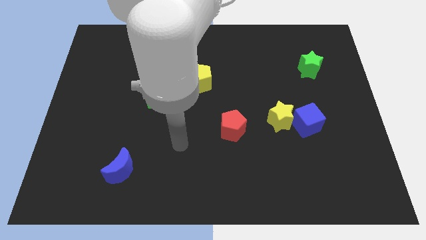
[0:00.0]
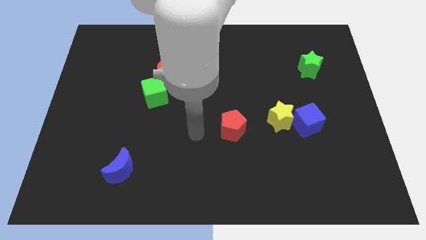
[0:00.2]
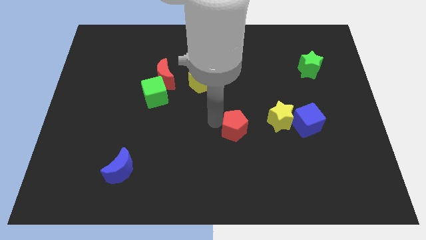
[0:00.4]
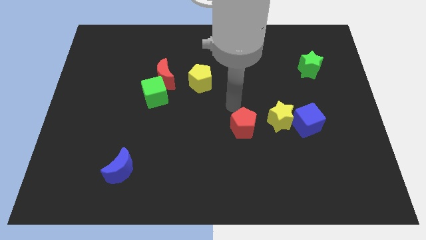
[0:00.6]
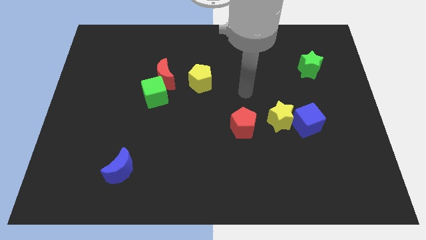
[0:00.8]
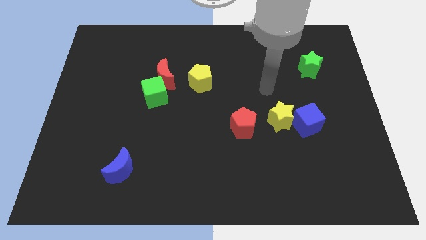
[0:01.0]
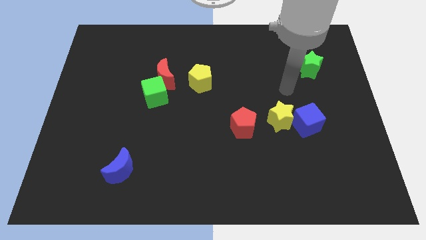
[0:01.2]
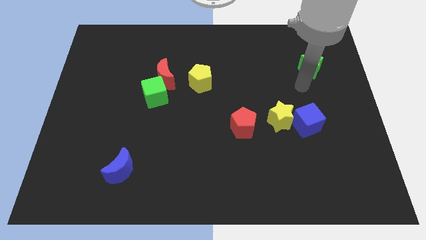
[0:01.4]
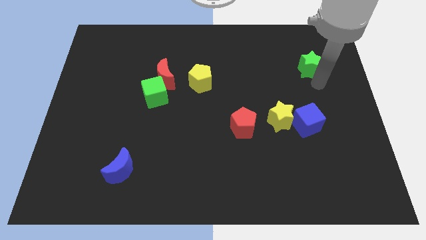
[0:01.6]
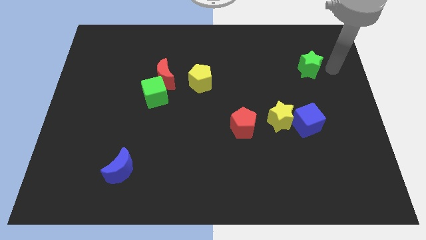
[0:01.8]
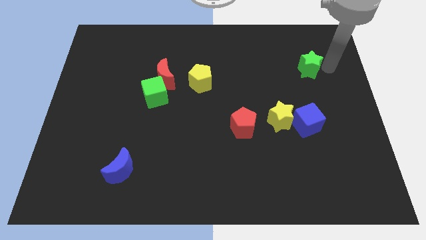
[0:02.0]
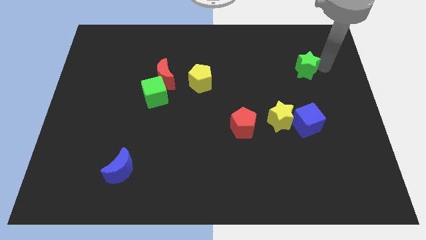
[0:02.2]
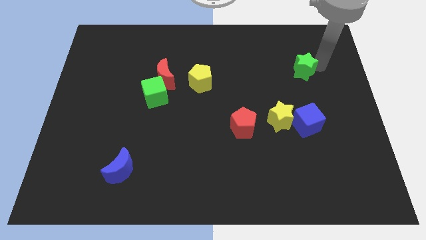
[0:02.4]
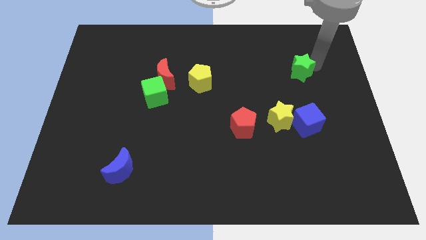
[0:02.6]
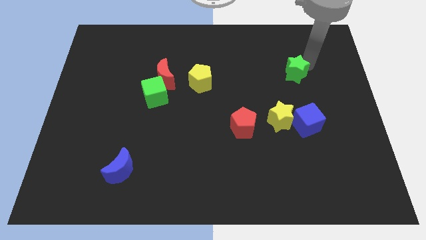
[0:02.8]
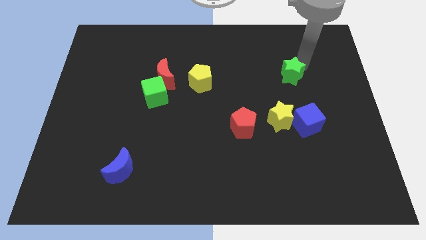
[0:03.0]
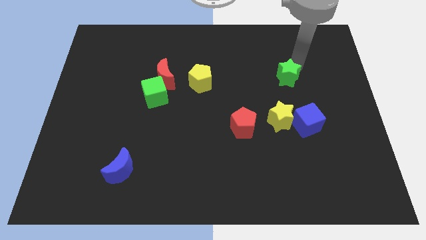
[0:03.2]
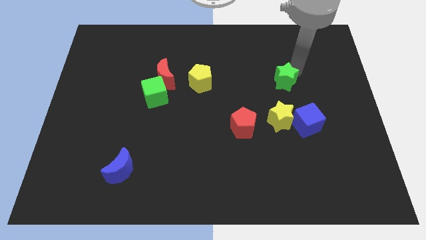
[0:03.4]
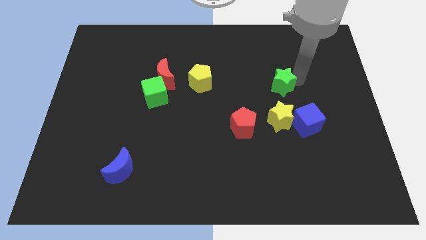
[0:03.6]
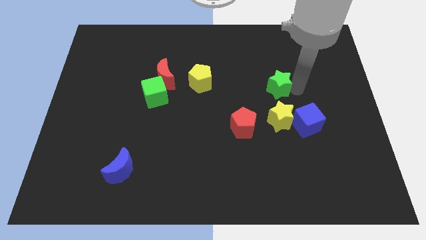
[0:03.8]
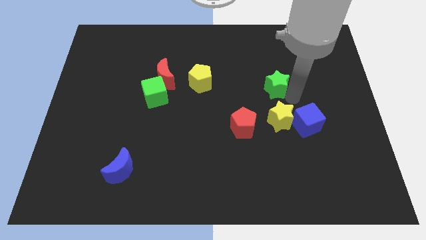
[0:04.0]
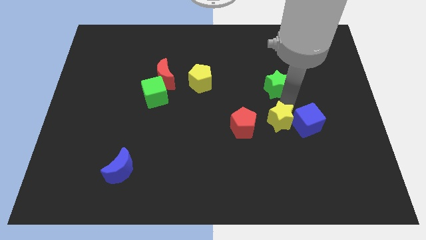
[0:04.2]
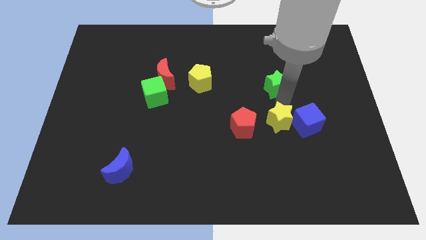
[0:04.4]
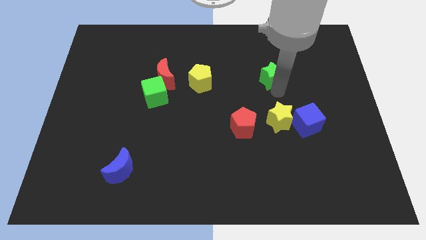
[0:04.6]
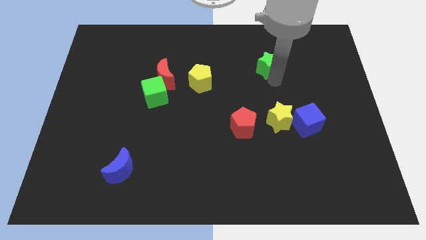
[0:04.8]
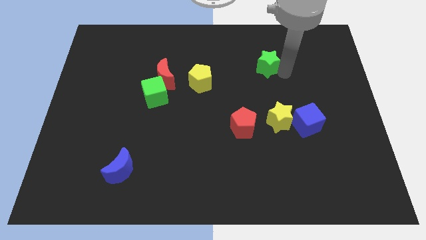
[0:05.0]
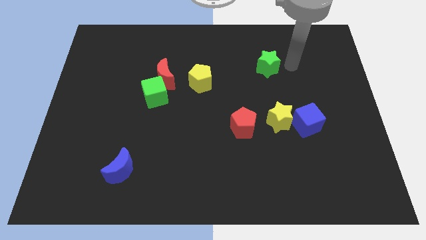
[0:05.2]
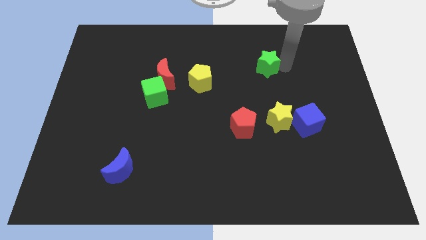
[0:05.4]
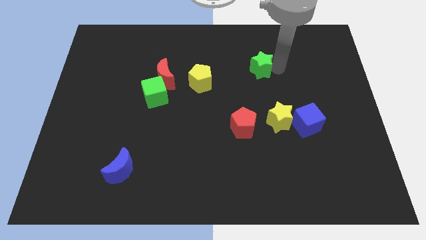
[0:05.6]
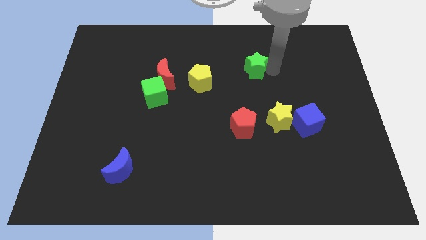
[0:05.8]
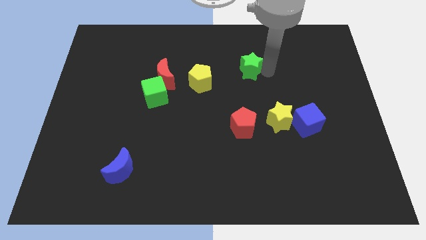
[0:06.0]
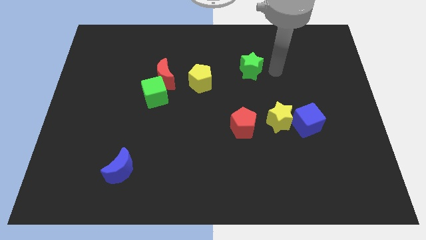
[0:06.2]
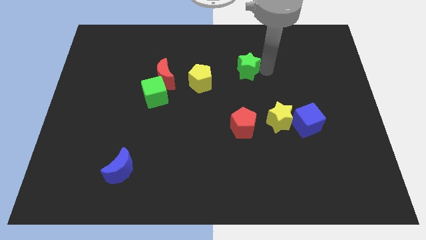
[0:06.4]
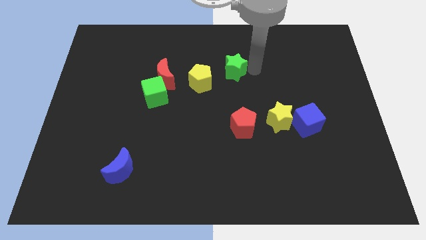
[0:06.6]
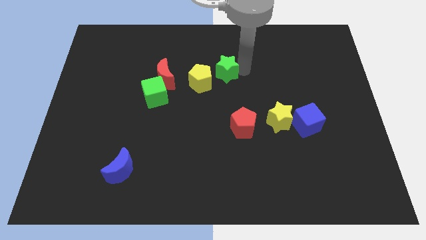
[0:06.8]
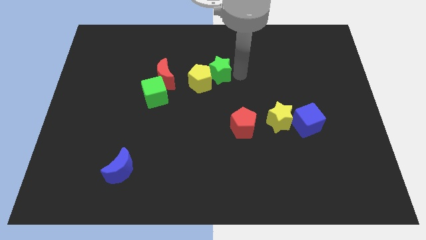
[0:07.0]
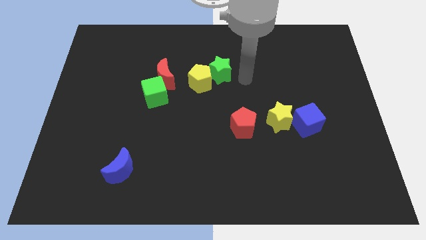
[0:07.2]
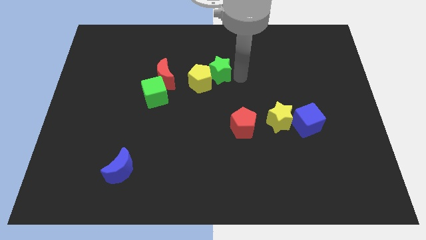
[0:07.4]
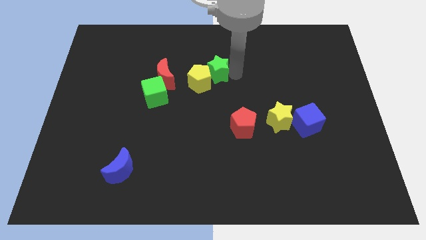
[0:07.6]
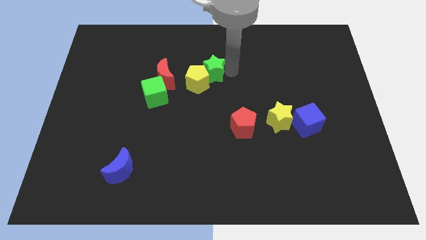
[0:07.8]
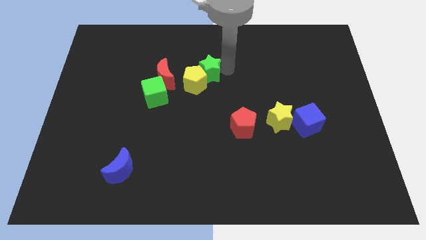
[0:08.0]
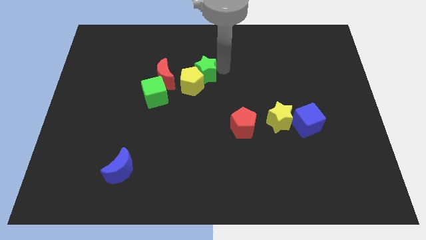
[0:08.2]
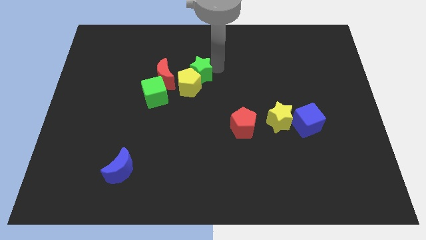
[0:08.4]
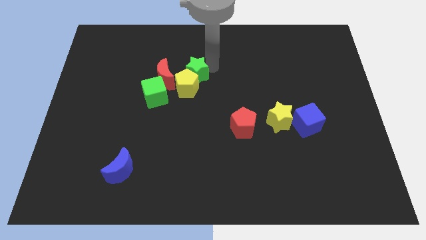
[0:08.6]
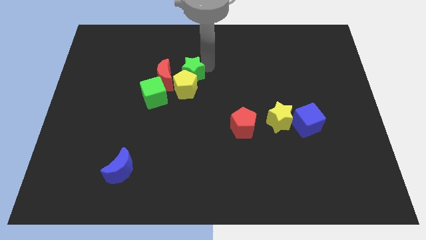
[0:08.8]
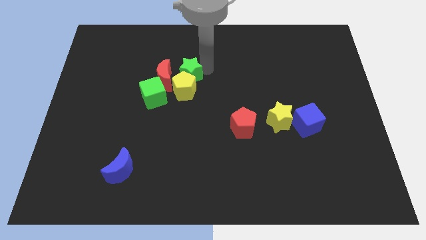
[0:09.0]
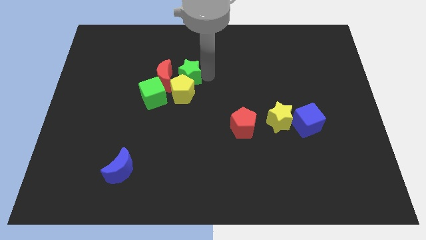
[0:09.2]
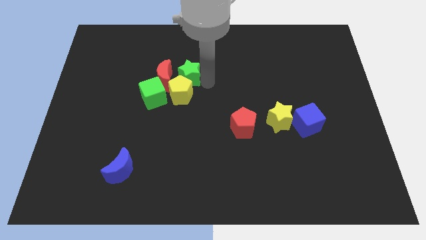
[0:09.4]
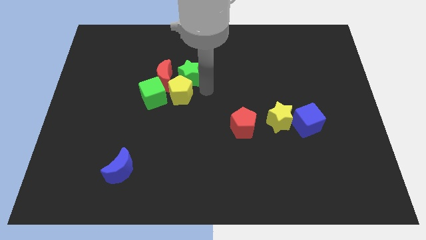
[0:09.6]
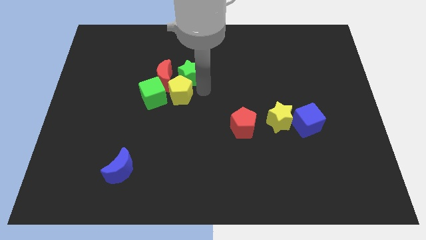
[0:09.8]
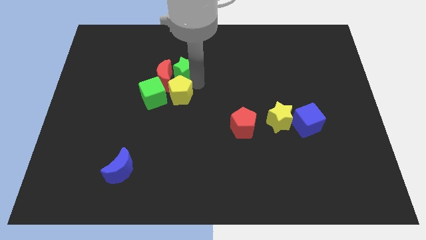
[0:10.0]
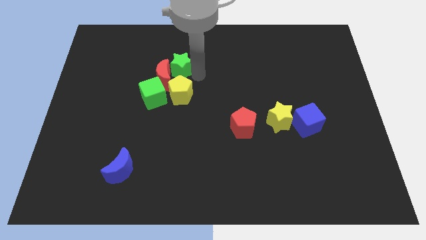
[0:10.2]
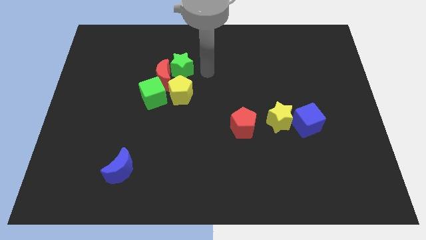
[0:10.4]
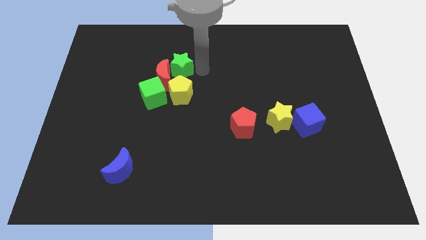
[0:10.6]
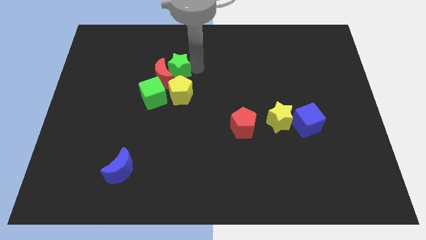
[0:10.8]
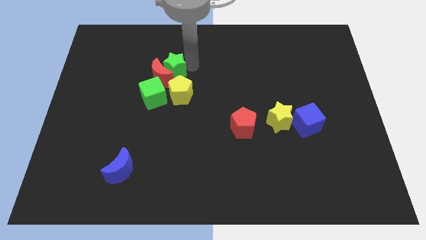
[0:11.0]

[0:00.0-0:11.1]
put the green star to the top of the green cube

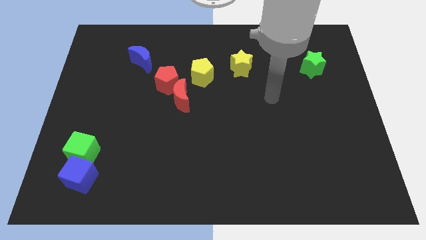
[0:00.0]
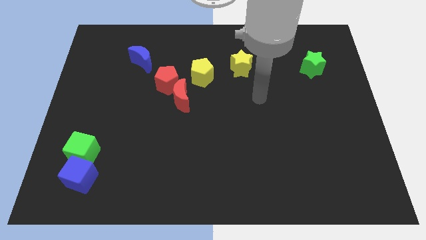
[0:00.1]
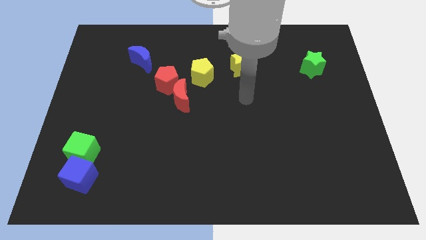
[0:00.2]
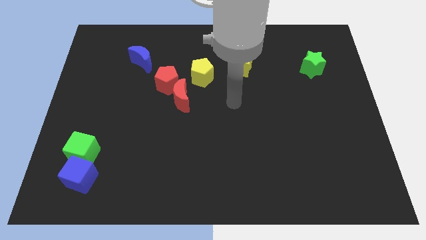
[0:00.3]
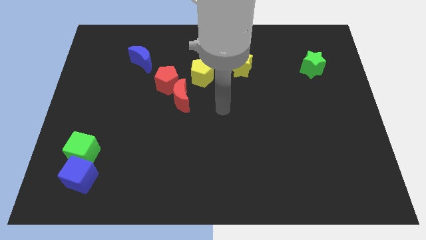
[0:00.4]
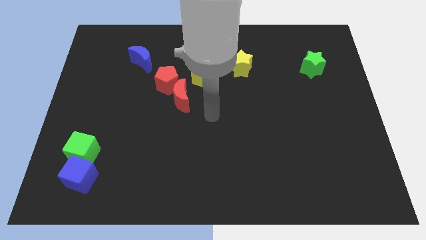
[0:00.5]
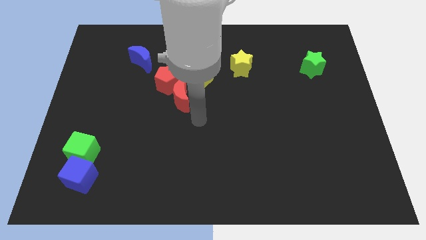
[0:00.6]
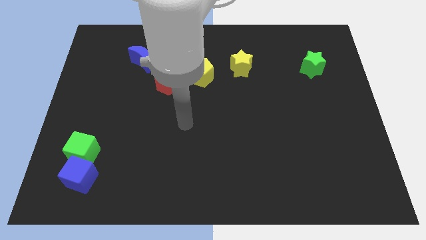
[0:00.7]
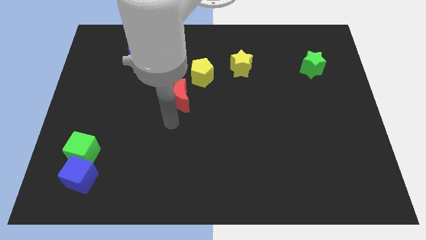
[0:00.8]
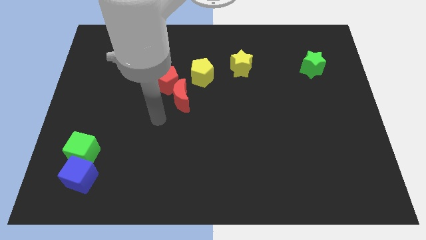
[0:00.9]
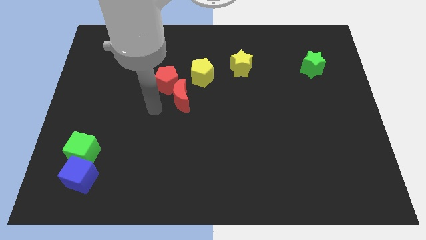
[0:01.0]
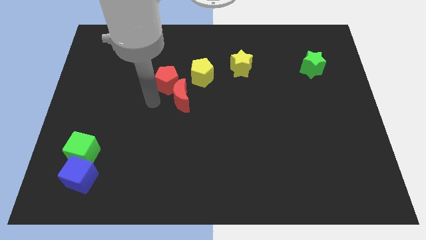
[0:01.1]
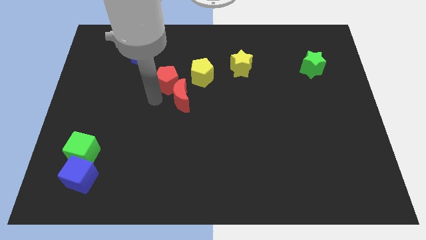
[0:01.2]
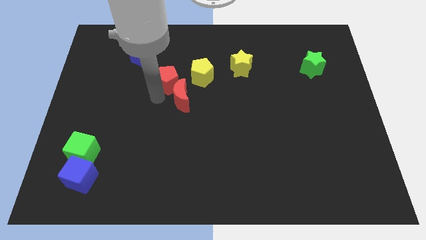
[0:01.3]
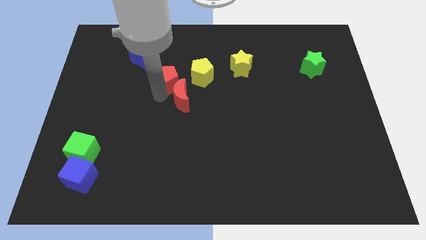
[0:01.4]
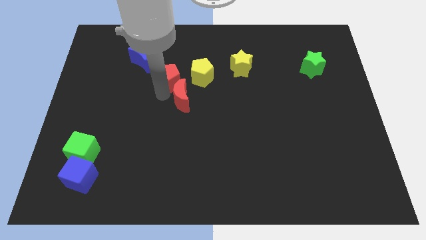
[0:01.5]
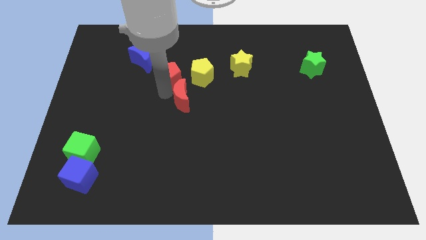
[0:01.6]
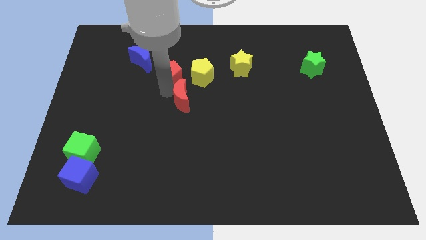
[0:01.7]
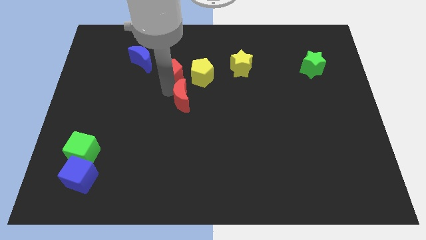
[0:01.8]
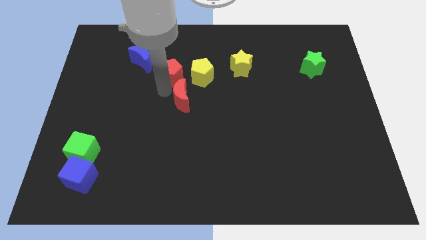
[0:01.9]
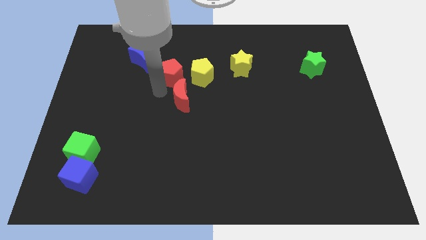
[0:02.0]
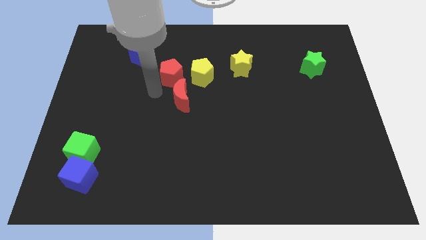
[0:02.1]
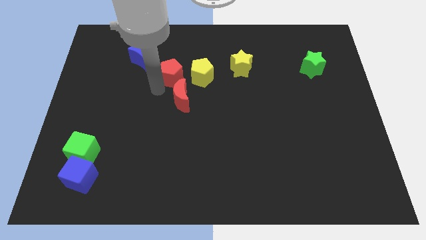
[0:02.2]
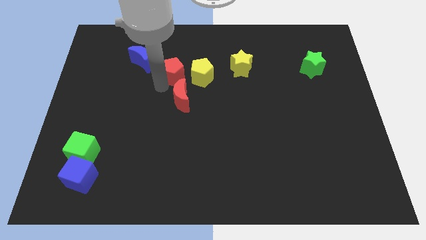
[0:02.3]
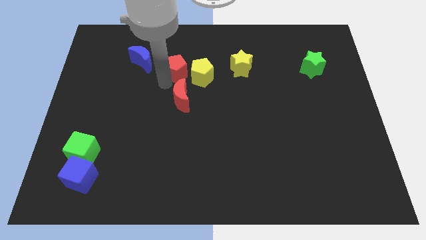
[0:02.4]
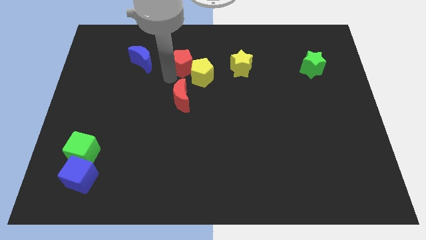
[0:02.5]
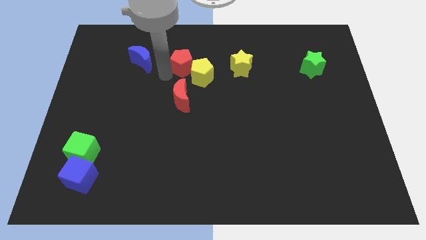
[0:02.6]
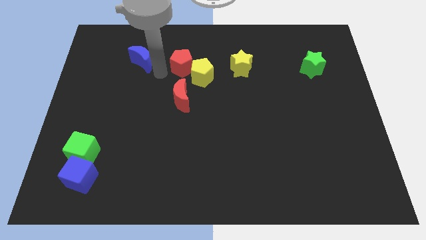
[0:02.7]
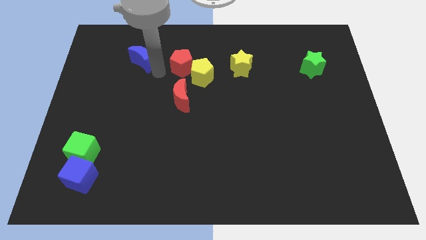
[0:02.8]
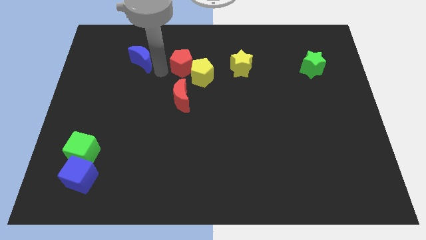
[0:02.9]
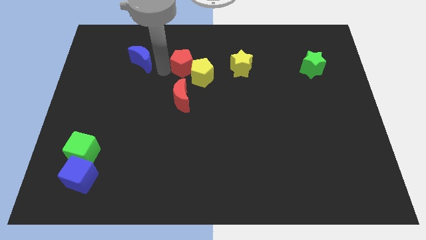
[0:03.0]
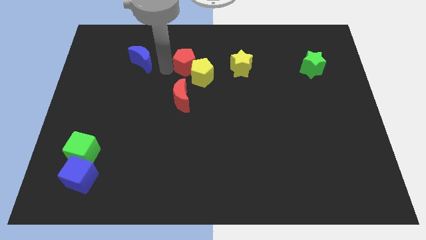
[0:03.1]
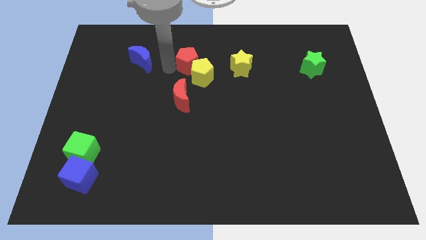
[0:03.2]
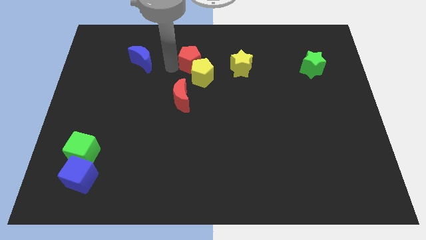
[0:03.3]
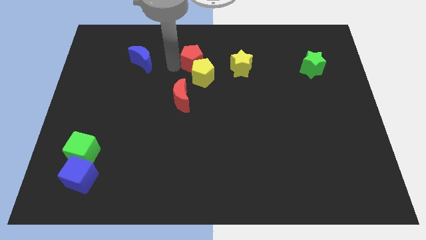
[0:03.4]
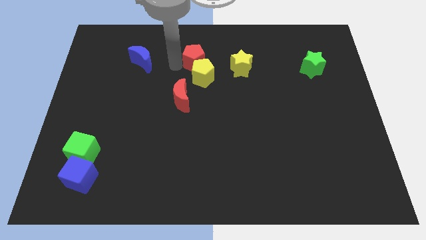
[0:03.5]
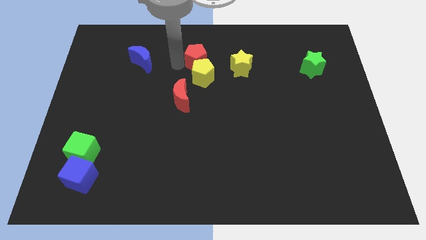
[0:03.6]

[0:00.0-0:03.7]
put the red pentagon to the top right of the yellow pentagon
